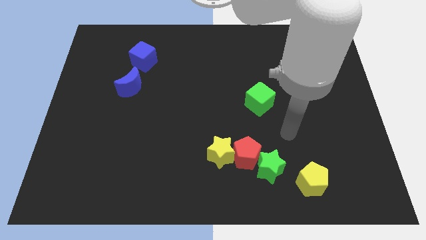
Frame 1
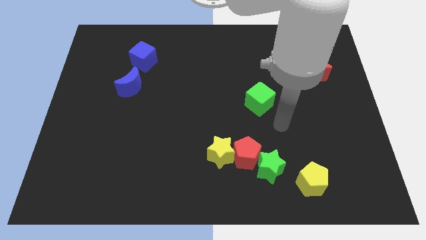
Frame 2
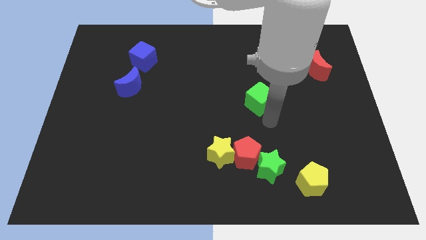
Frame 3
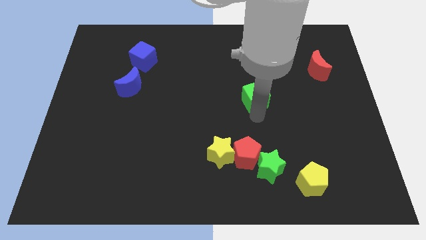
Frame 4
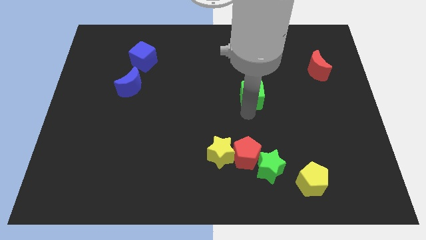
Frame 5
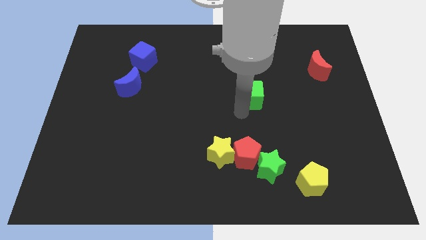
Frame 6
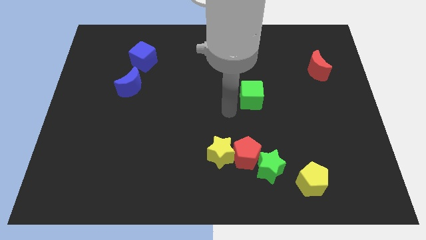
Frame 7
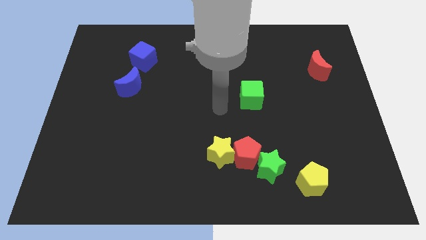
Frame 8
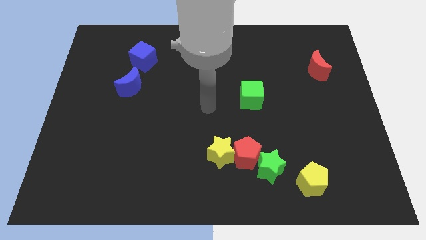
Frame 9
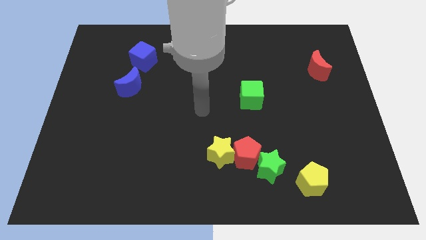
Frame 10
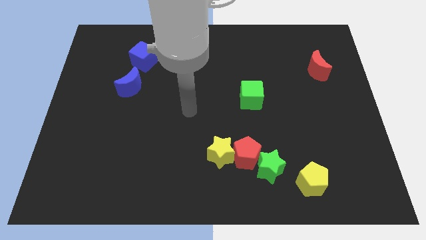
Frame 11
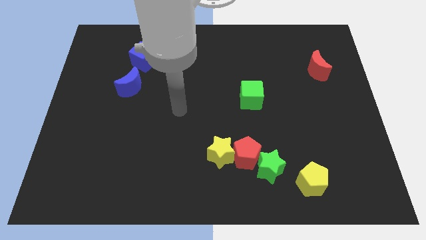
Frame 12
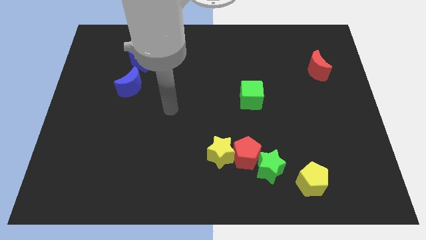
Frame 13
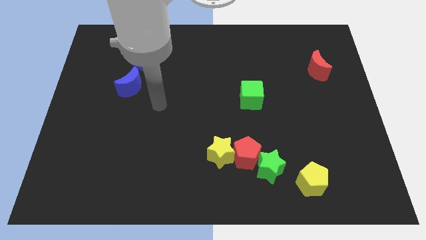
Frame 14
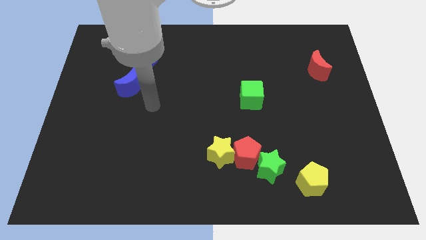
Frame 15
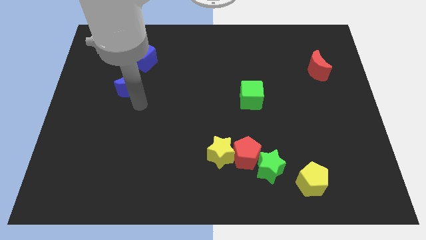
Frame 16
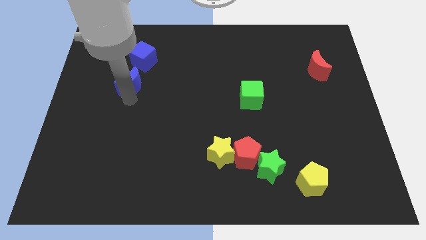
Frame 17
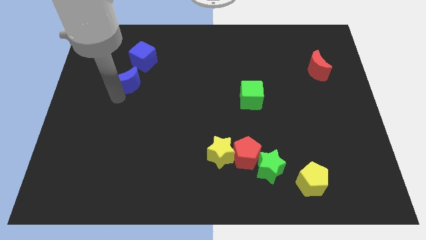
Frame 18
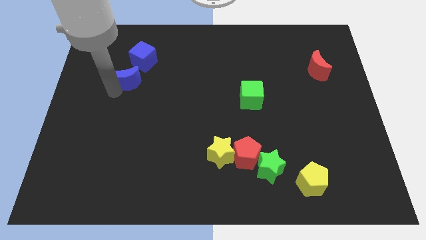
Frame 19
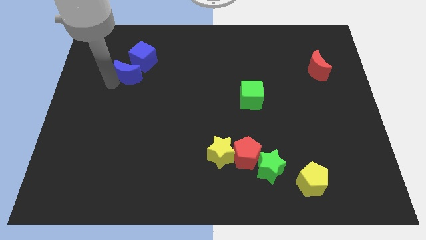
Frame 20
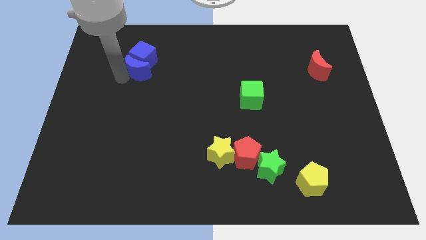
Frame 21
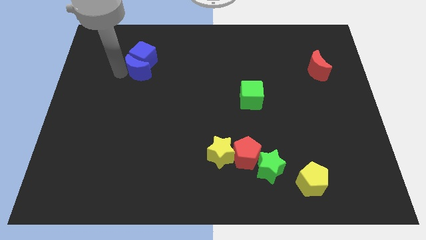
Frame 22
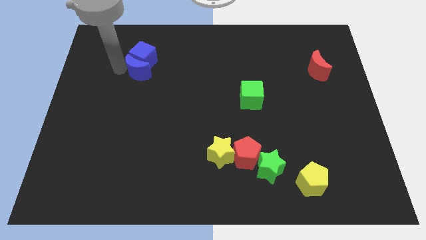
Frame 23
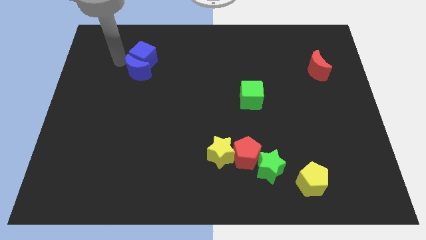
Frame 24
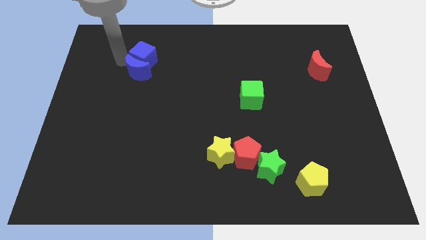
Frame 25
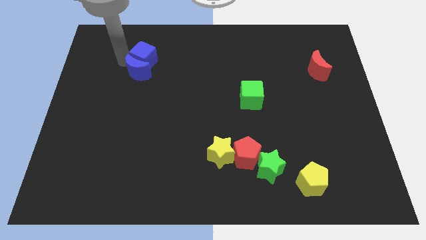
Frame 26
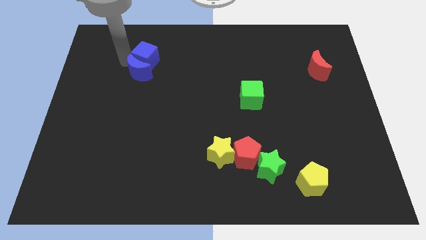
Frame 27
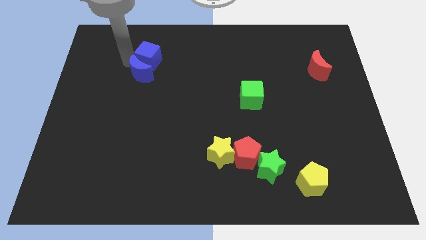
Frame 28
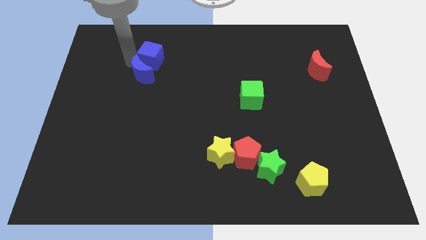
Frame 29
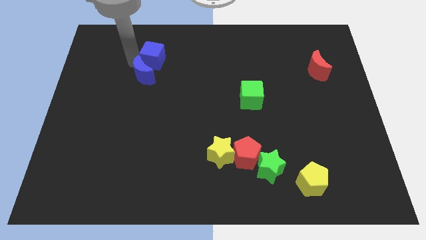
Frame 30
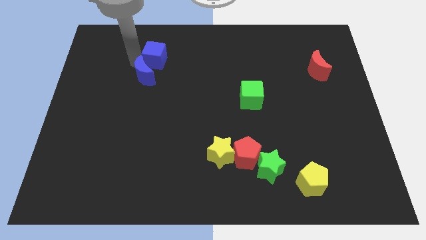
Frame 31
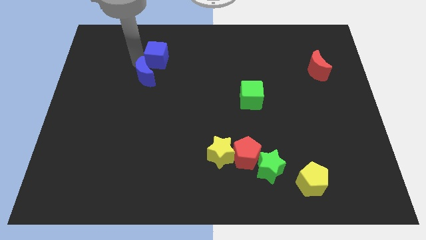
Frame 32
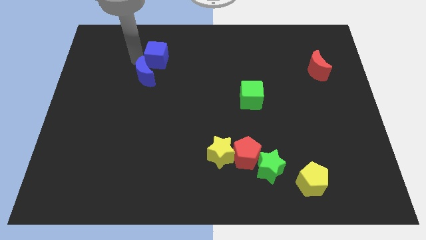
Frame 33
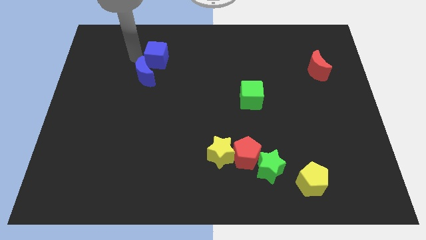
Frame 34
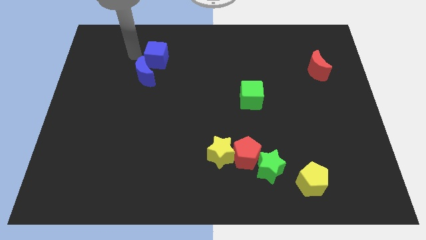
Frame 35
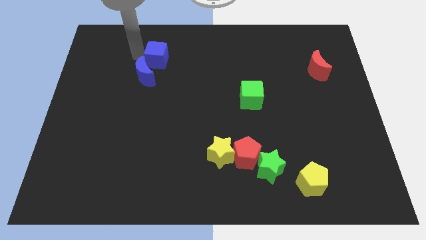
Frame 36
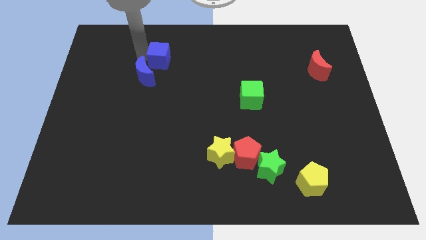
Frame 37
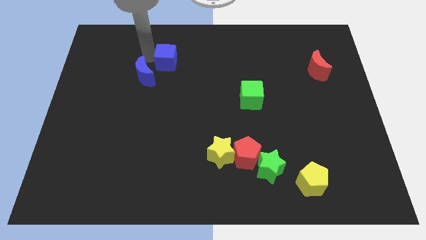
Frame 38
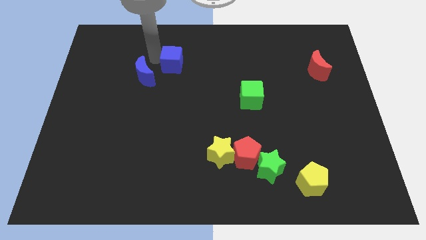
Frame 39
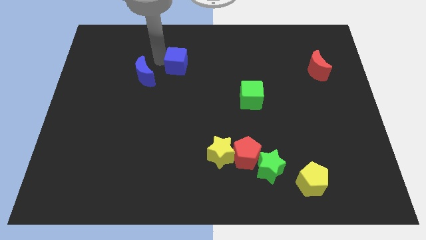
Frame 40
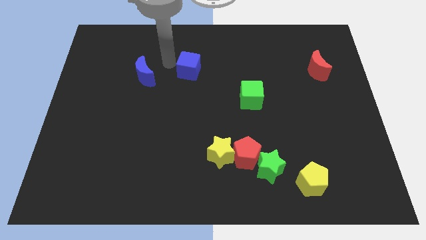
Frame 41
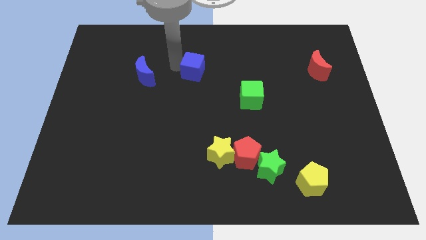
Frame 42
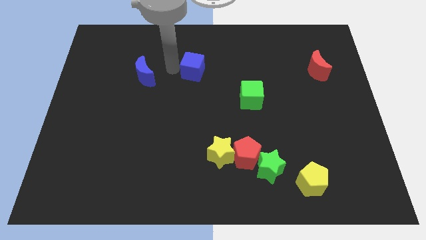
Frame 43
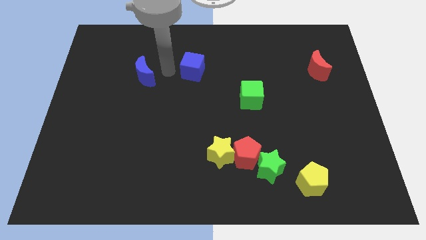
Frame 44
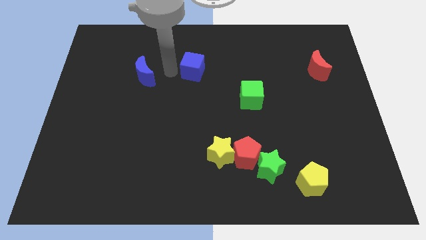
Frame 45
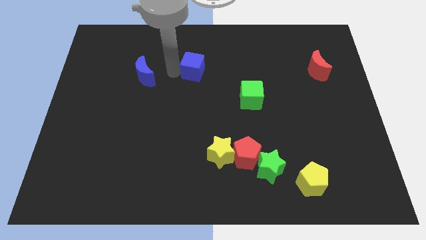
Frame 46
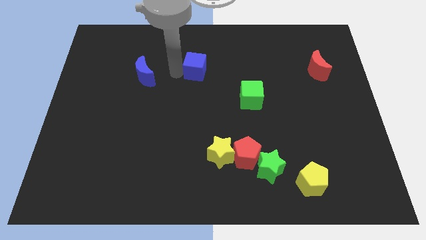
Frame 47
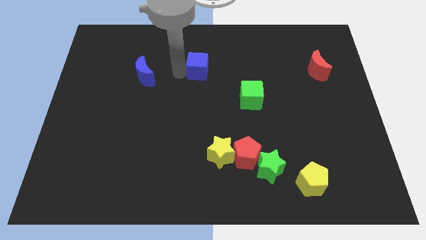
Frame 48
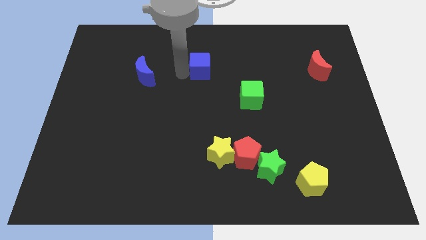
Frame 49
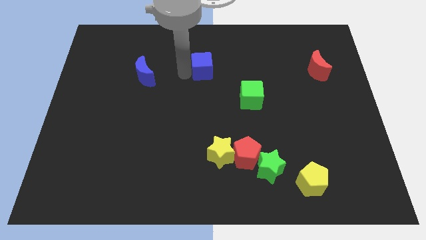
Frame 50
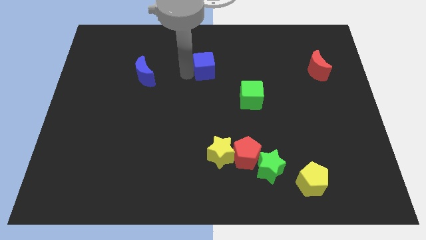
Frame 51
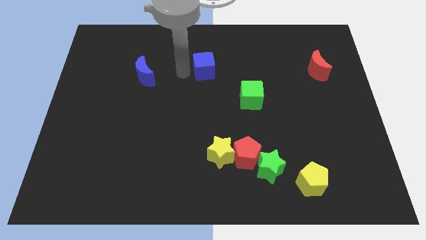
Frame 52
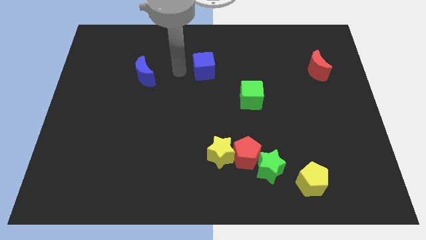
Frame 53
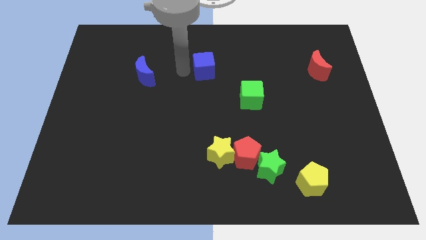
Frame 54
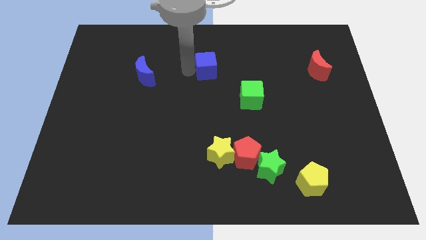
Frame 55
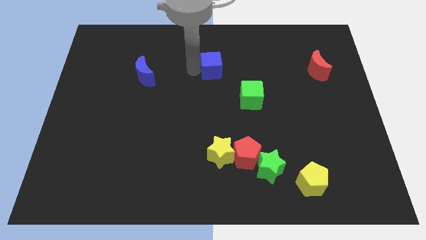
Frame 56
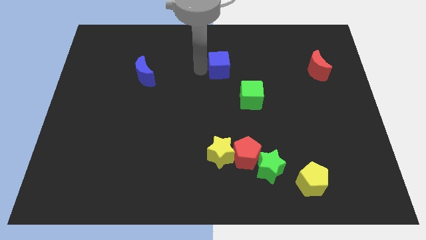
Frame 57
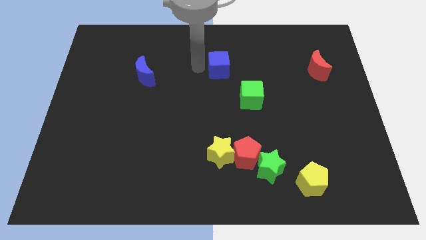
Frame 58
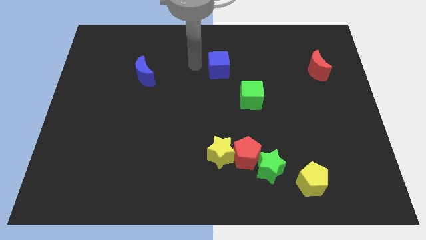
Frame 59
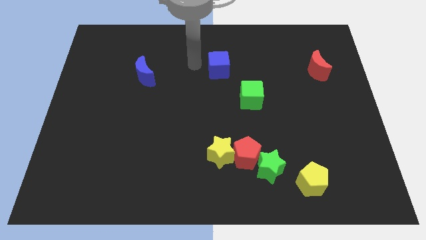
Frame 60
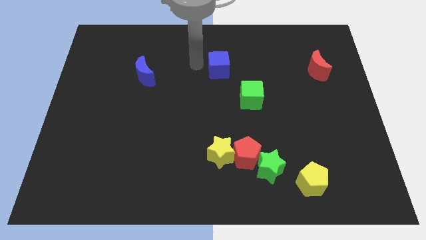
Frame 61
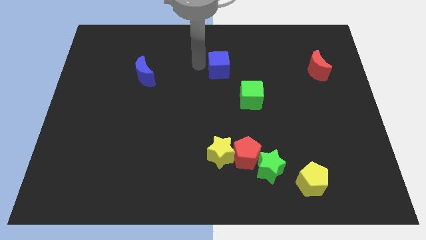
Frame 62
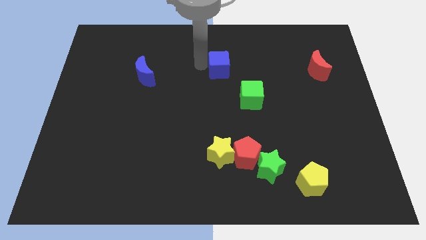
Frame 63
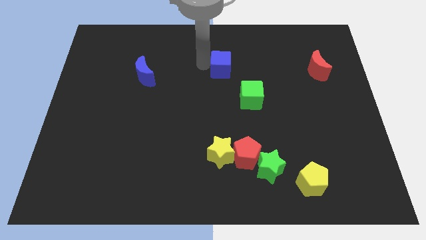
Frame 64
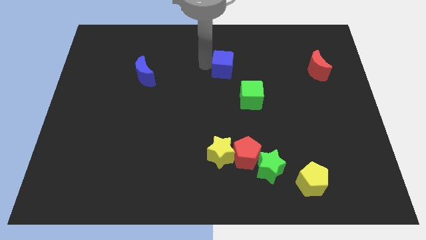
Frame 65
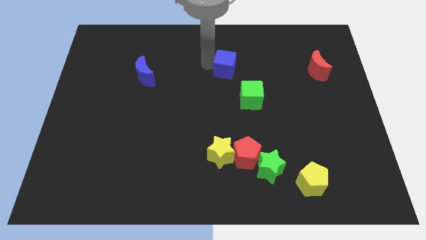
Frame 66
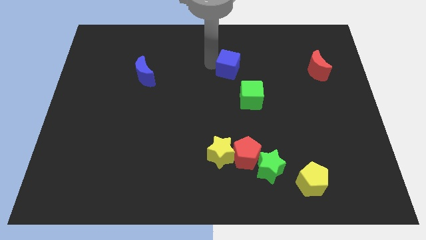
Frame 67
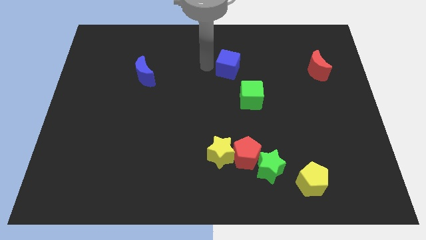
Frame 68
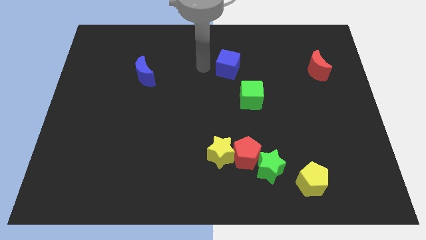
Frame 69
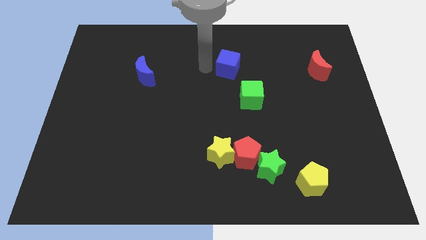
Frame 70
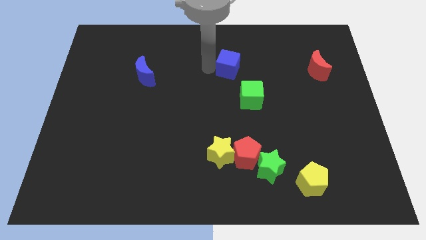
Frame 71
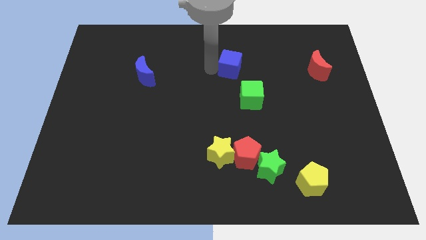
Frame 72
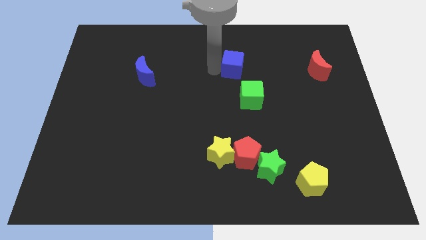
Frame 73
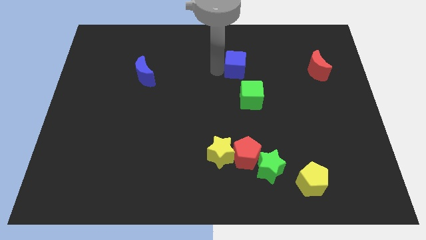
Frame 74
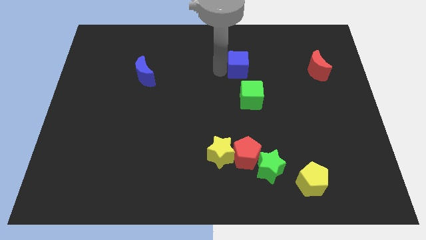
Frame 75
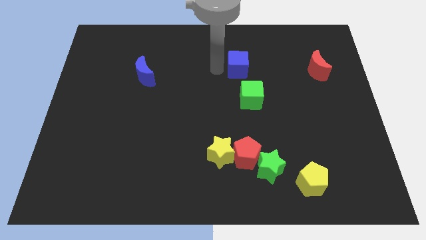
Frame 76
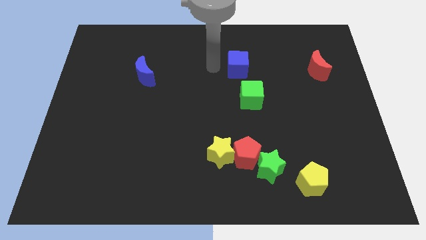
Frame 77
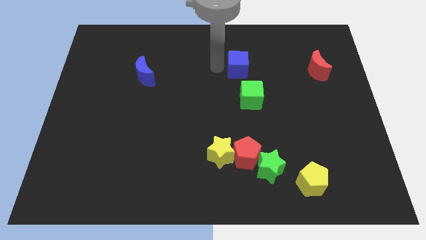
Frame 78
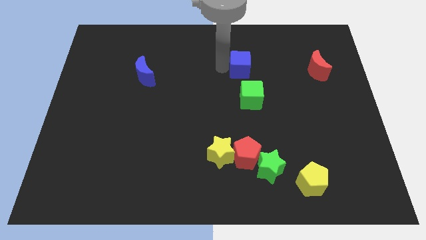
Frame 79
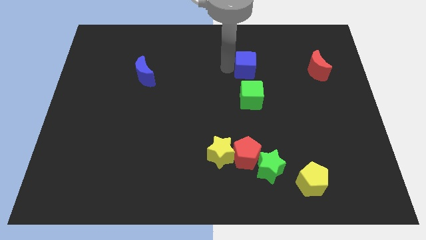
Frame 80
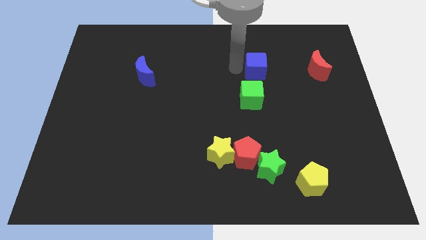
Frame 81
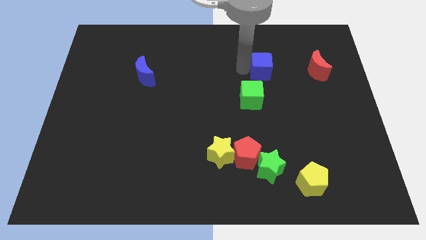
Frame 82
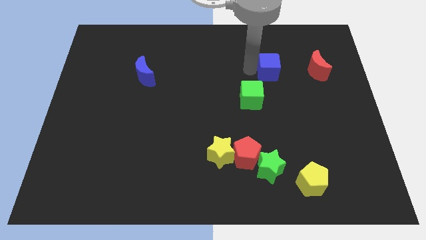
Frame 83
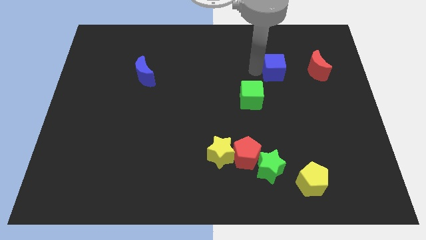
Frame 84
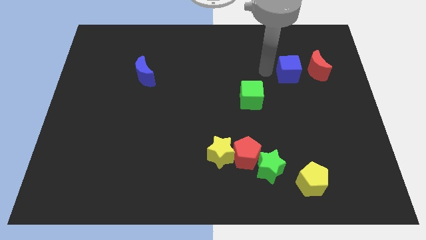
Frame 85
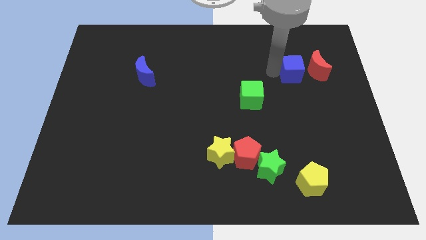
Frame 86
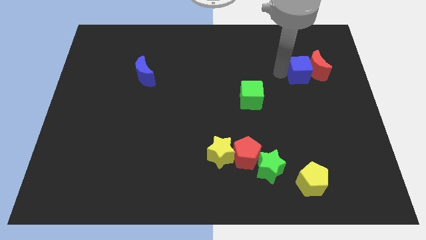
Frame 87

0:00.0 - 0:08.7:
push the blue cube close to the red moon
